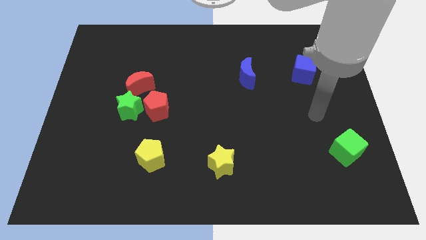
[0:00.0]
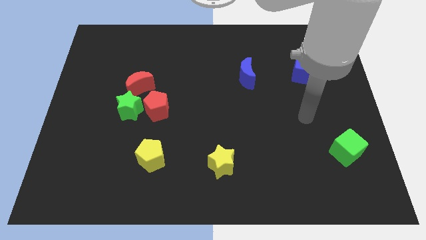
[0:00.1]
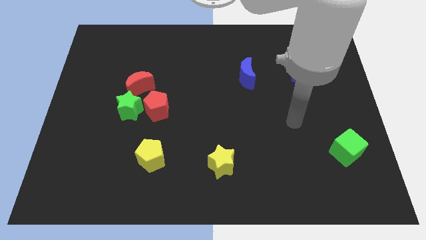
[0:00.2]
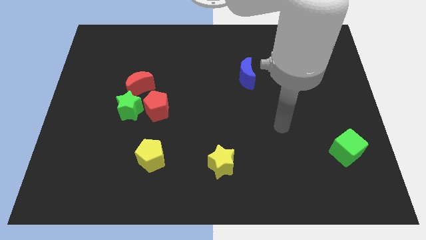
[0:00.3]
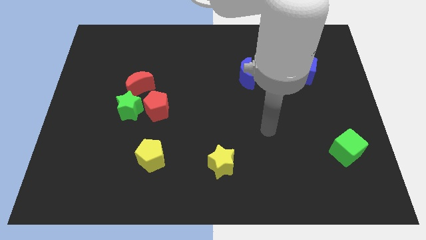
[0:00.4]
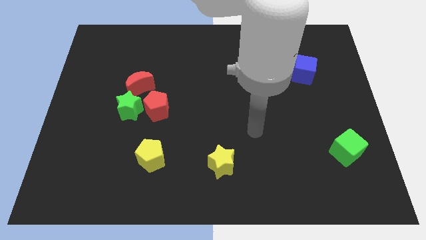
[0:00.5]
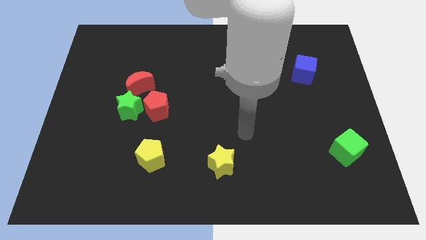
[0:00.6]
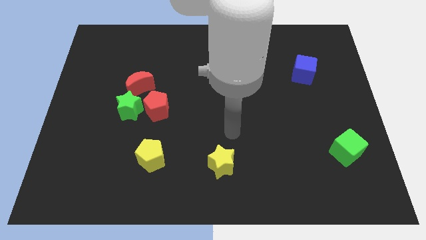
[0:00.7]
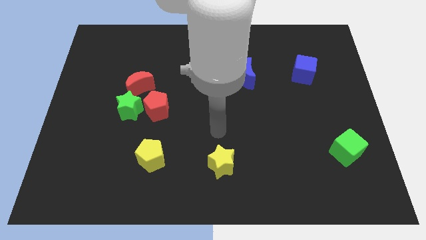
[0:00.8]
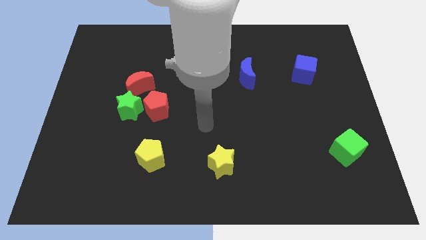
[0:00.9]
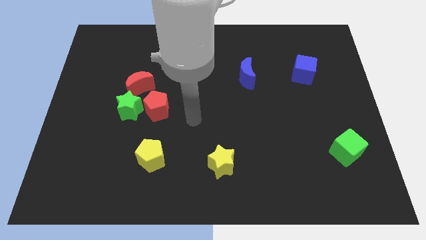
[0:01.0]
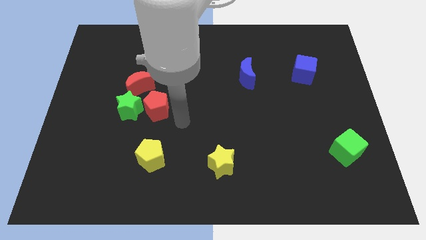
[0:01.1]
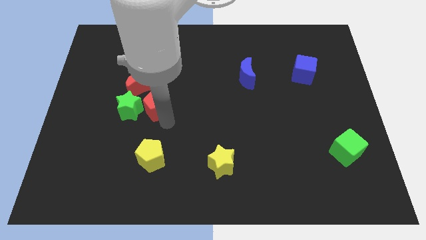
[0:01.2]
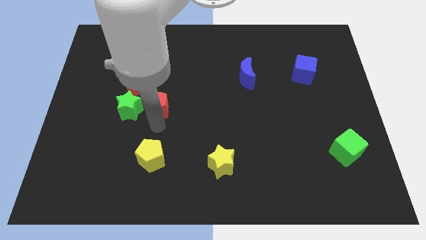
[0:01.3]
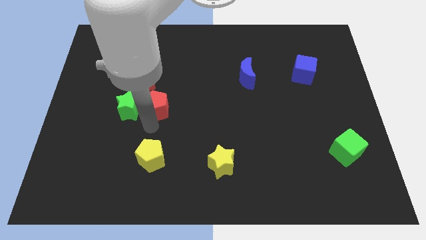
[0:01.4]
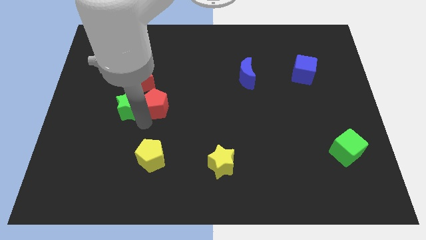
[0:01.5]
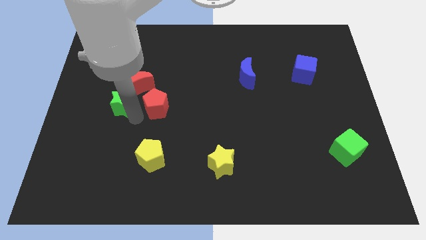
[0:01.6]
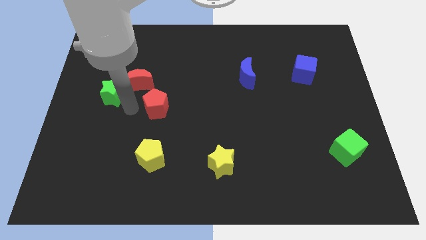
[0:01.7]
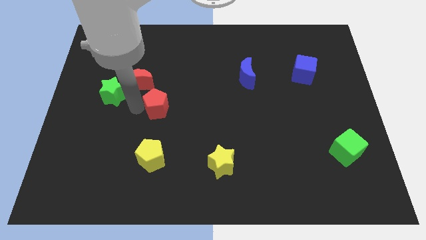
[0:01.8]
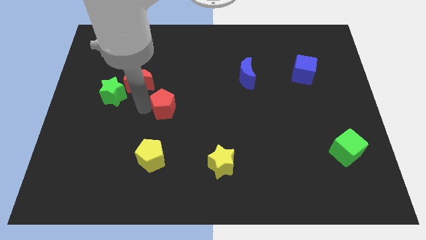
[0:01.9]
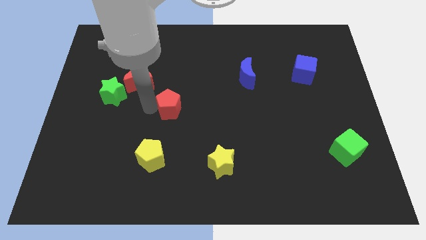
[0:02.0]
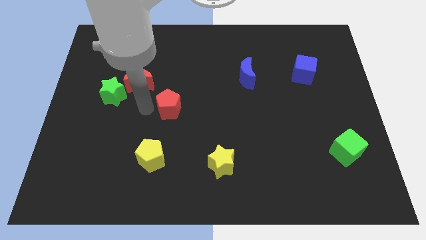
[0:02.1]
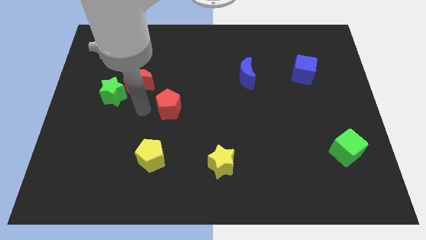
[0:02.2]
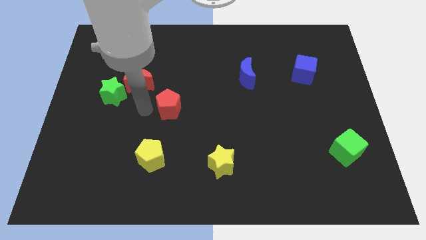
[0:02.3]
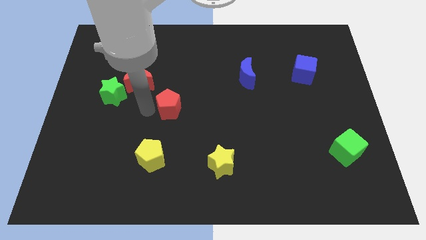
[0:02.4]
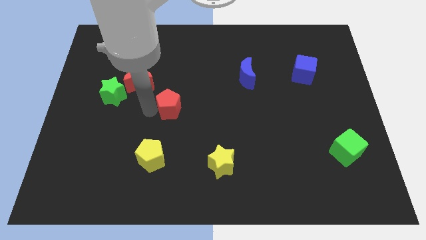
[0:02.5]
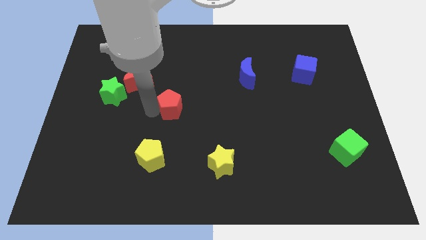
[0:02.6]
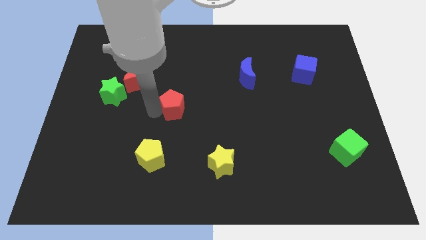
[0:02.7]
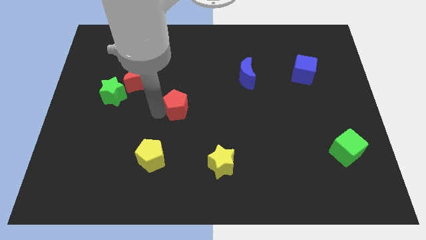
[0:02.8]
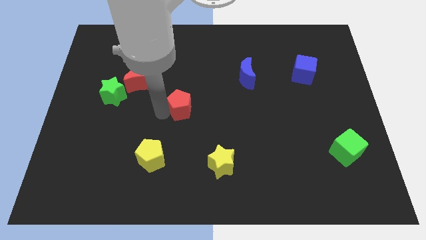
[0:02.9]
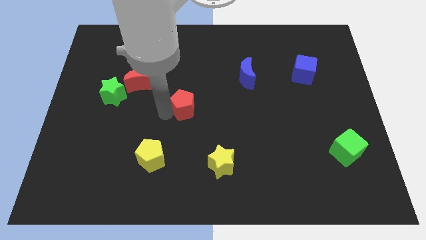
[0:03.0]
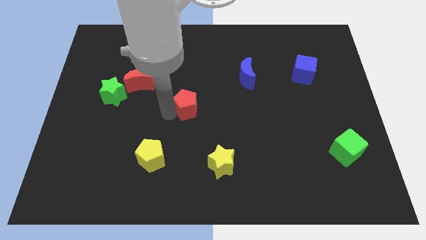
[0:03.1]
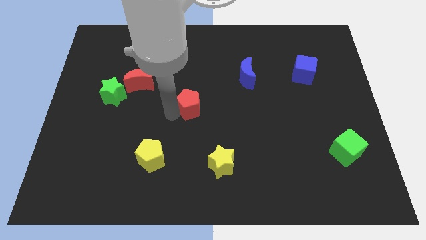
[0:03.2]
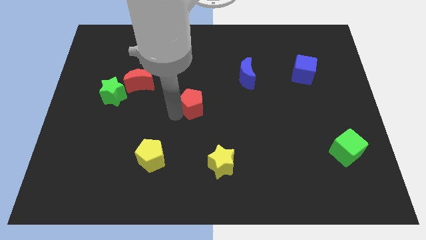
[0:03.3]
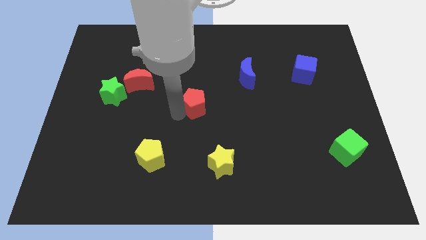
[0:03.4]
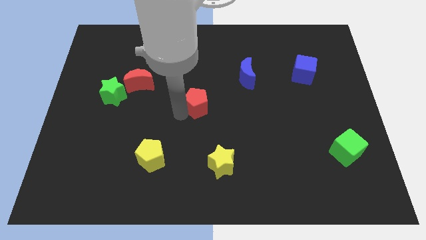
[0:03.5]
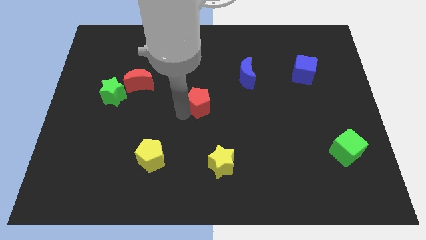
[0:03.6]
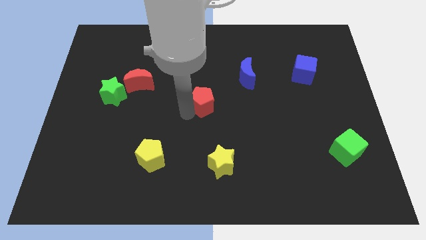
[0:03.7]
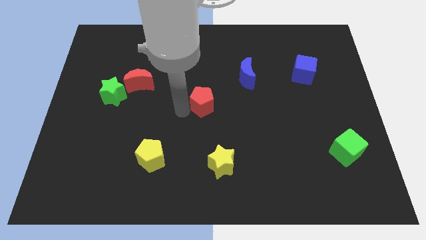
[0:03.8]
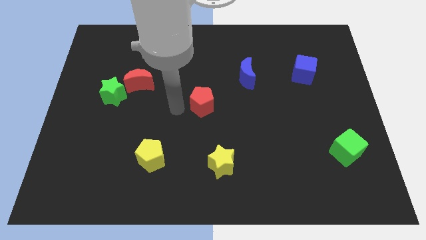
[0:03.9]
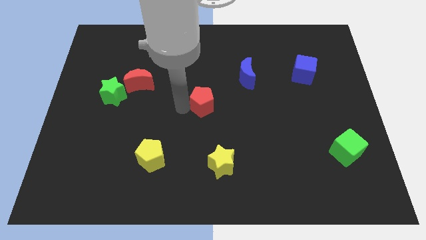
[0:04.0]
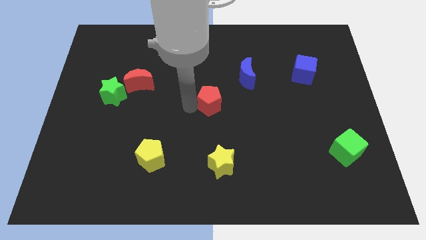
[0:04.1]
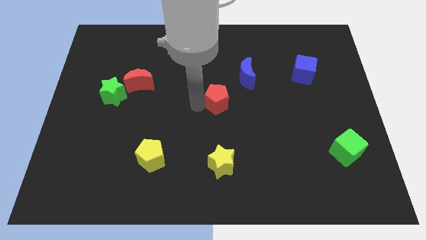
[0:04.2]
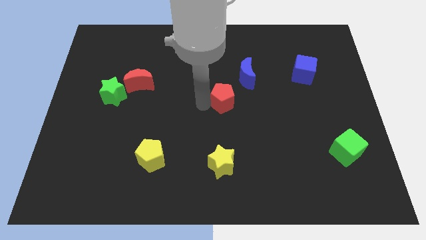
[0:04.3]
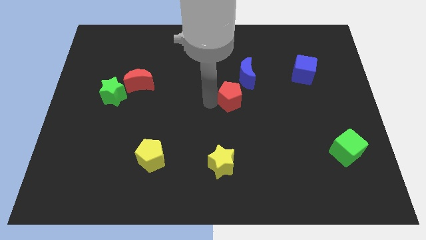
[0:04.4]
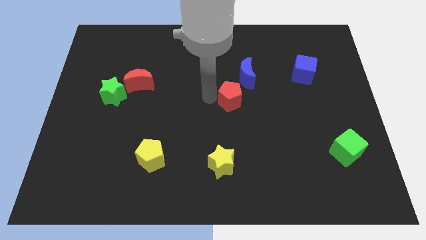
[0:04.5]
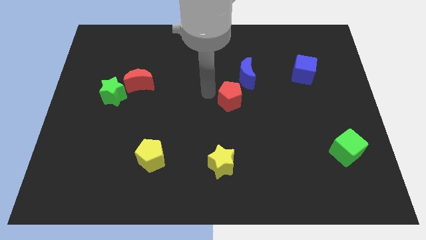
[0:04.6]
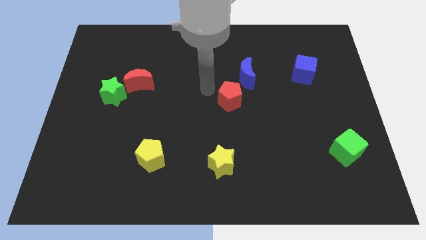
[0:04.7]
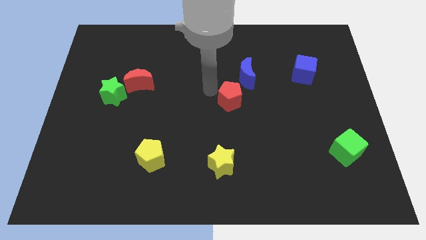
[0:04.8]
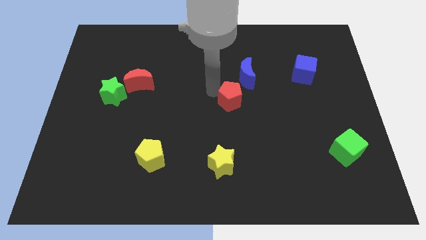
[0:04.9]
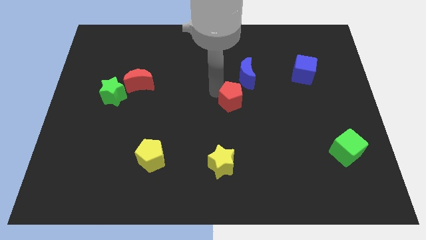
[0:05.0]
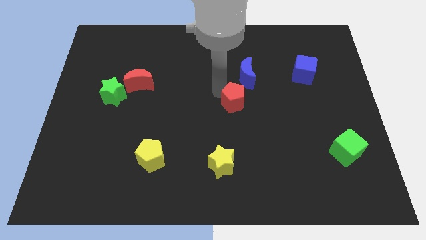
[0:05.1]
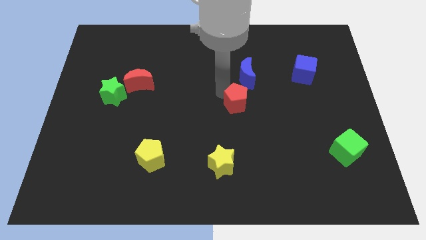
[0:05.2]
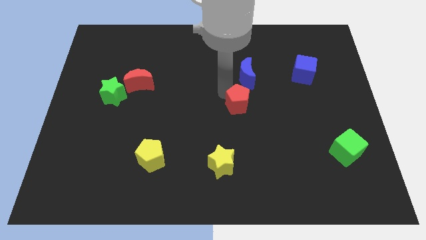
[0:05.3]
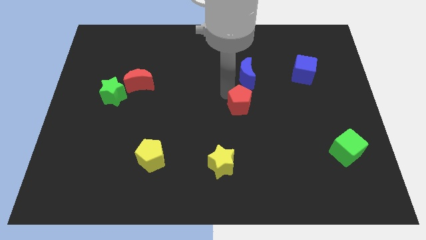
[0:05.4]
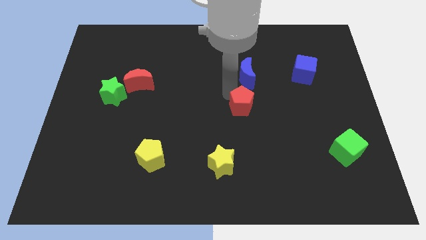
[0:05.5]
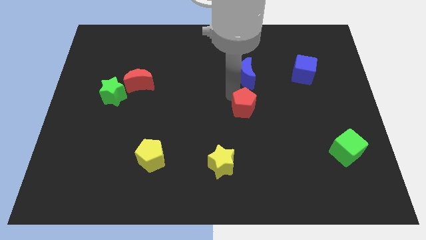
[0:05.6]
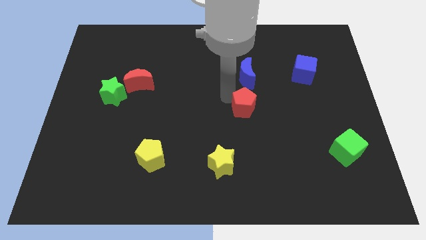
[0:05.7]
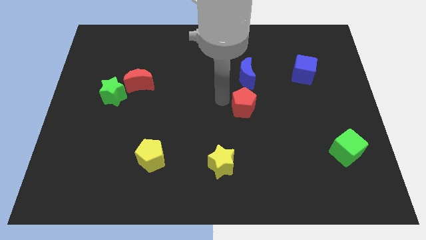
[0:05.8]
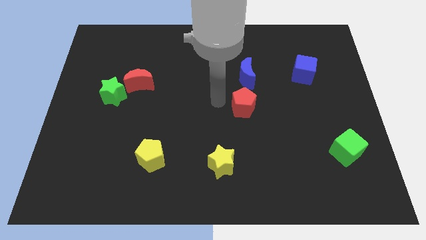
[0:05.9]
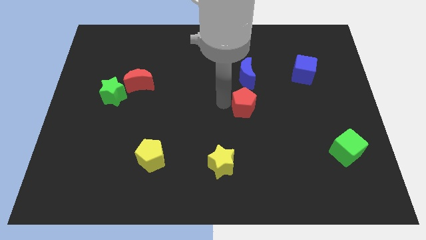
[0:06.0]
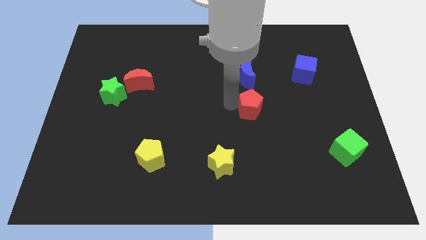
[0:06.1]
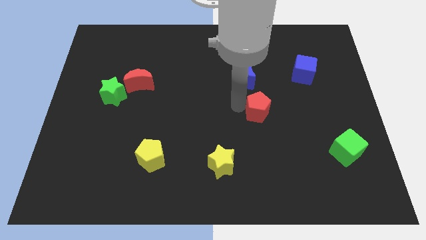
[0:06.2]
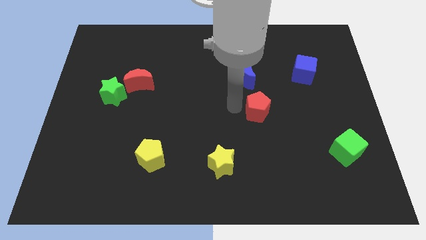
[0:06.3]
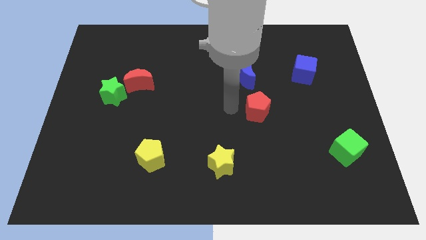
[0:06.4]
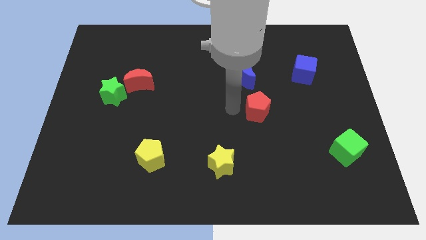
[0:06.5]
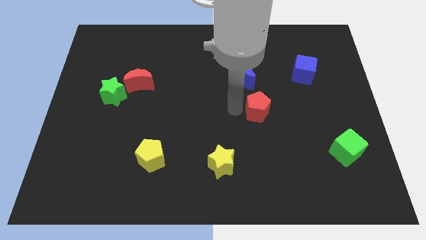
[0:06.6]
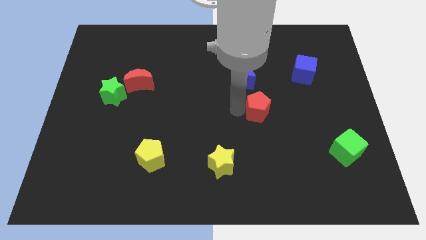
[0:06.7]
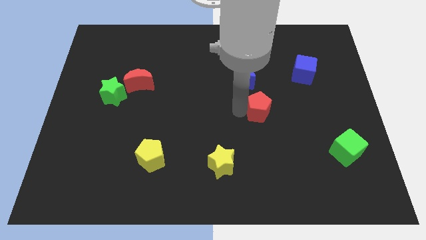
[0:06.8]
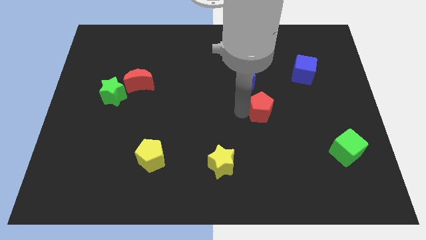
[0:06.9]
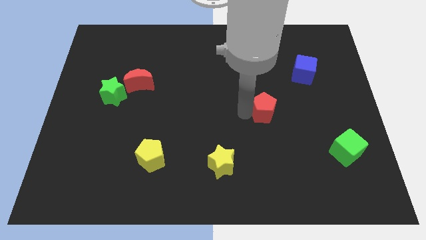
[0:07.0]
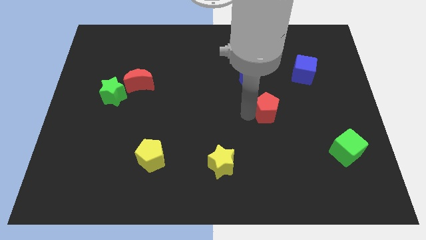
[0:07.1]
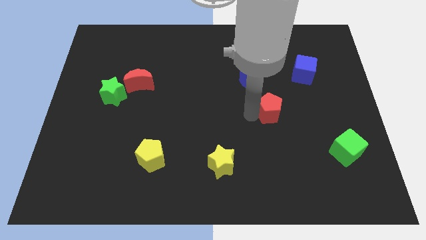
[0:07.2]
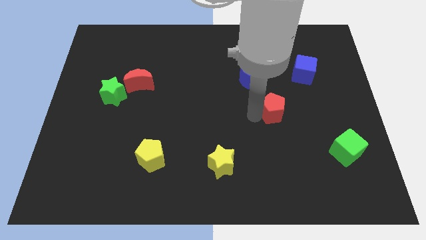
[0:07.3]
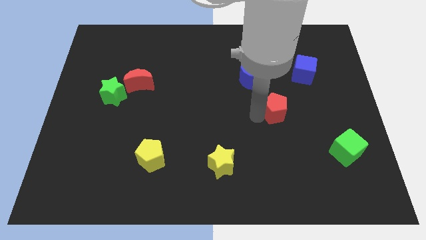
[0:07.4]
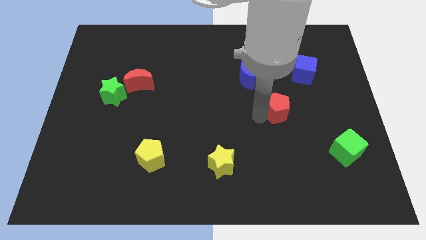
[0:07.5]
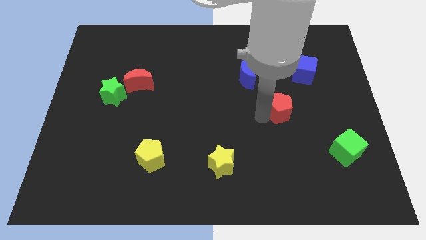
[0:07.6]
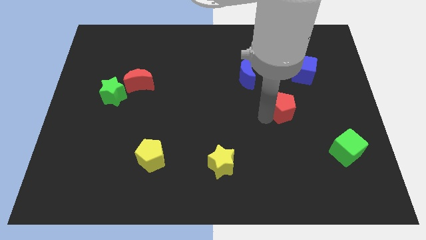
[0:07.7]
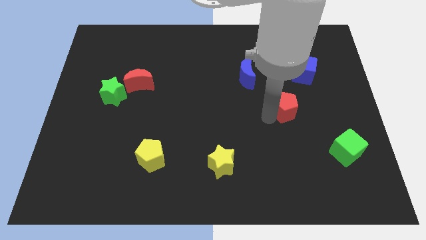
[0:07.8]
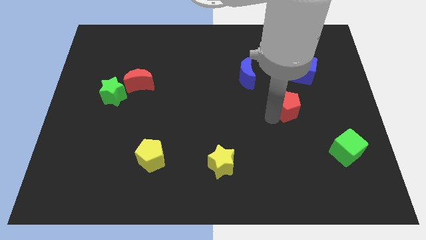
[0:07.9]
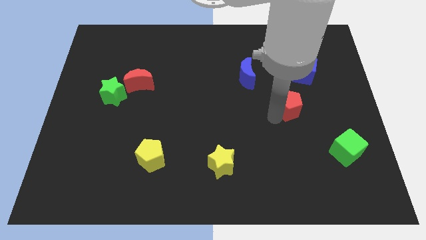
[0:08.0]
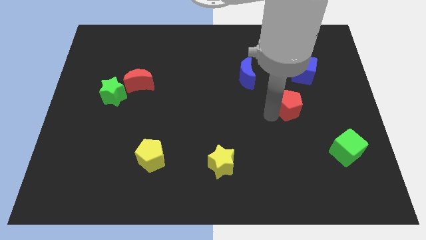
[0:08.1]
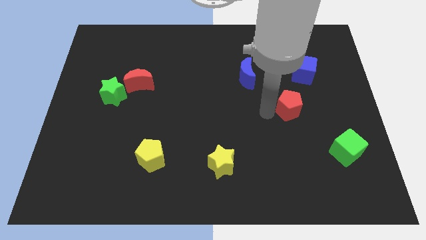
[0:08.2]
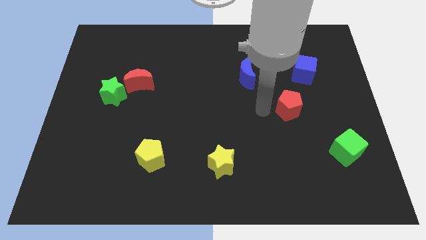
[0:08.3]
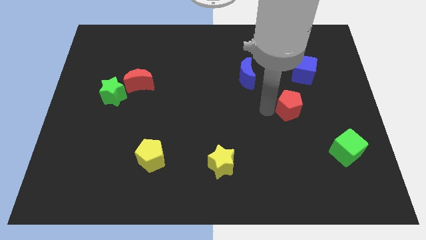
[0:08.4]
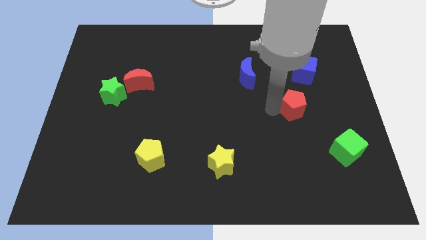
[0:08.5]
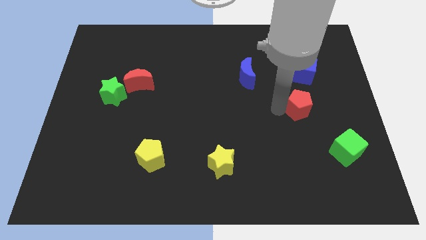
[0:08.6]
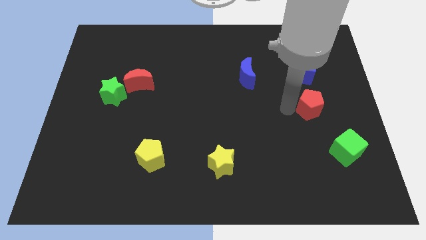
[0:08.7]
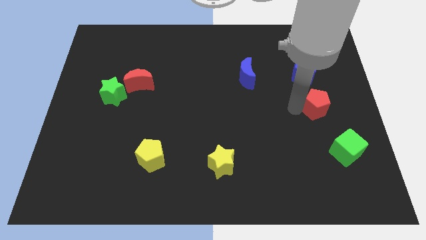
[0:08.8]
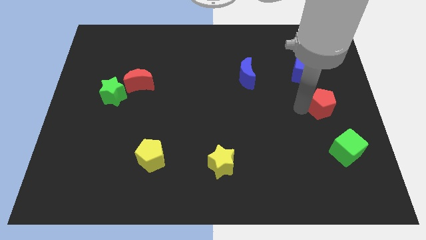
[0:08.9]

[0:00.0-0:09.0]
push the red pentagon to the right side
